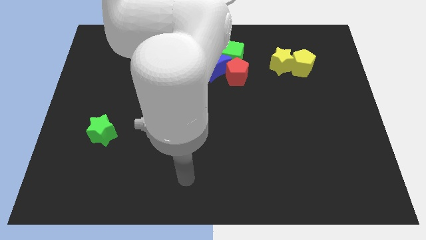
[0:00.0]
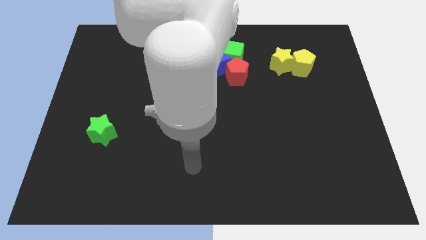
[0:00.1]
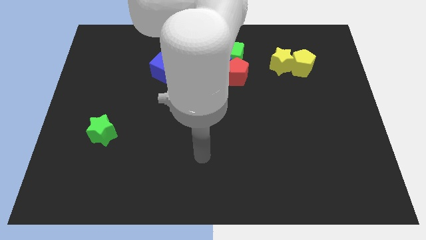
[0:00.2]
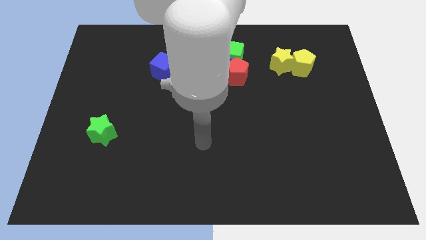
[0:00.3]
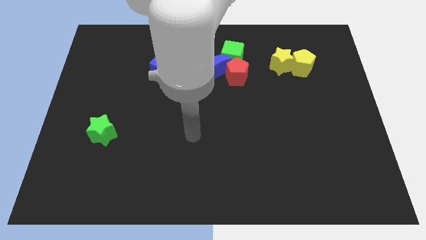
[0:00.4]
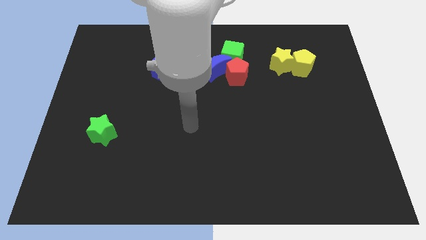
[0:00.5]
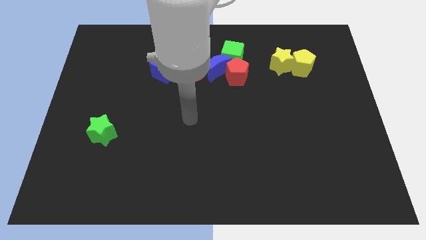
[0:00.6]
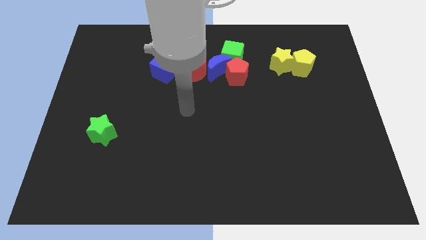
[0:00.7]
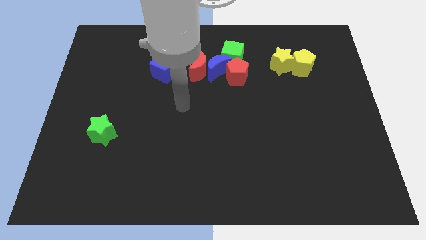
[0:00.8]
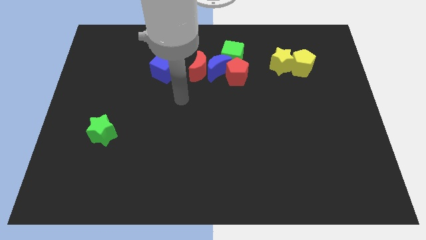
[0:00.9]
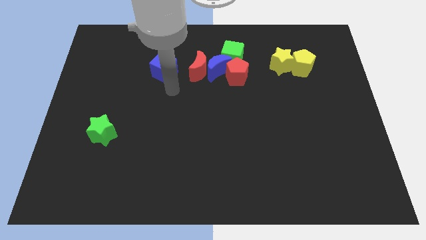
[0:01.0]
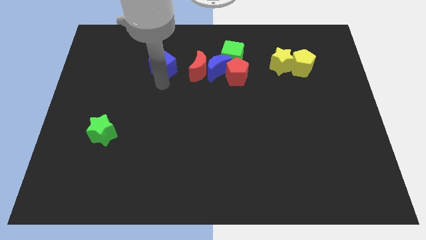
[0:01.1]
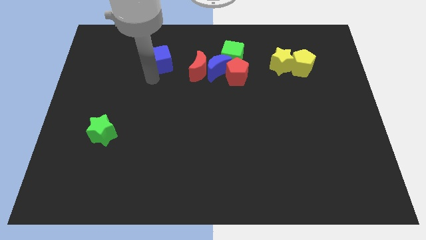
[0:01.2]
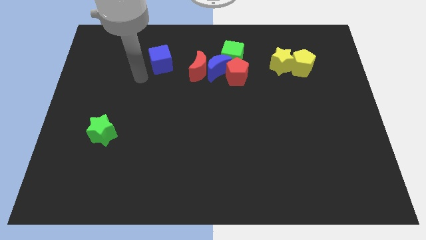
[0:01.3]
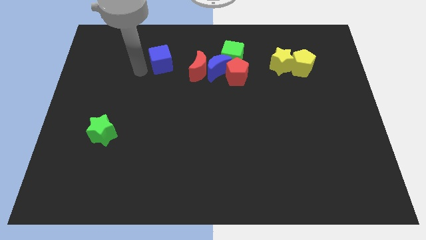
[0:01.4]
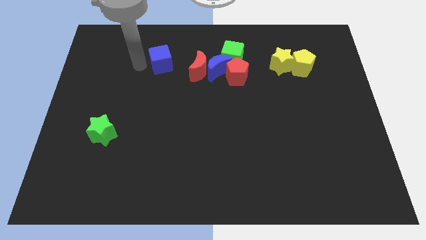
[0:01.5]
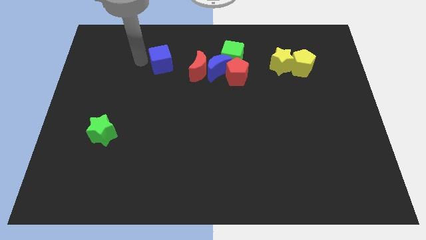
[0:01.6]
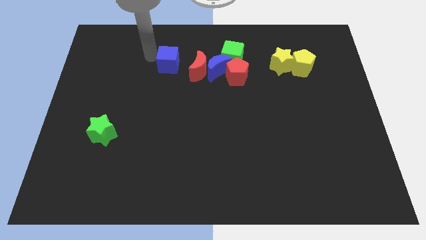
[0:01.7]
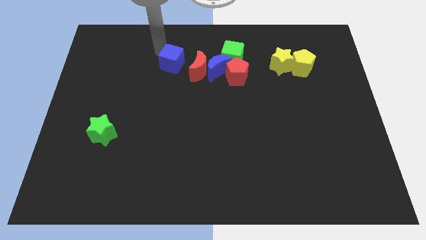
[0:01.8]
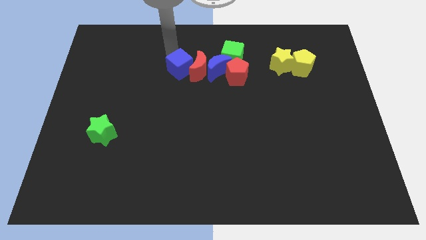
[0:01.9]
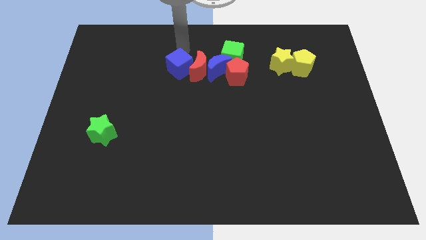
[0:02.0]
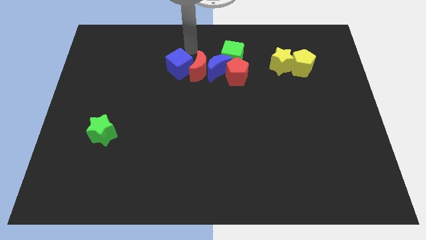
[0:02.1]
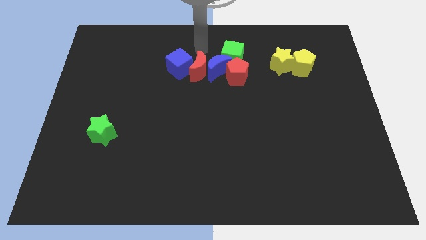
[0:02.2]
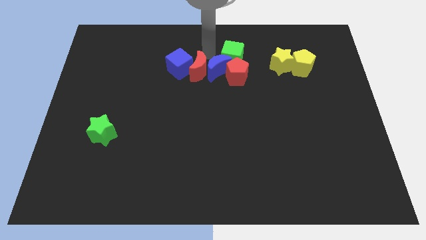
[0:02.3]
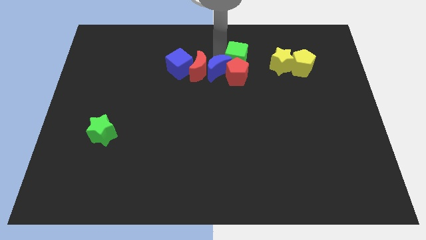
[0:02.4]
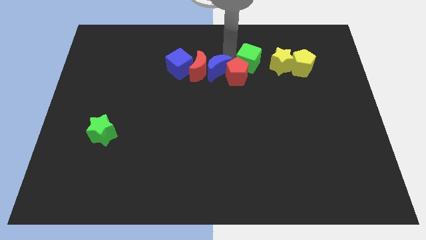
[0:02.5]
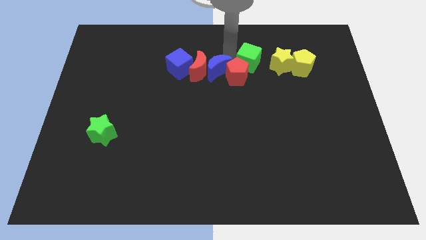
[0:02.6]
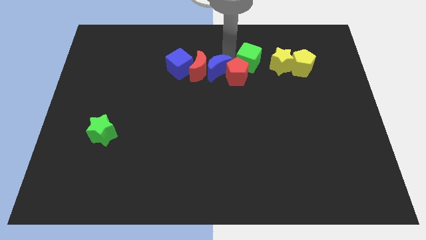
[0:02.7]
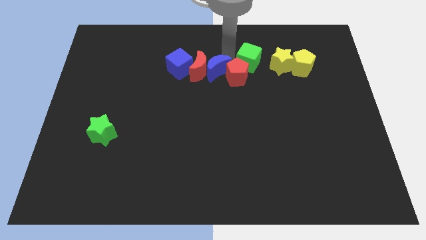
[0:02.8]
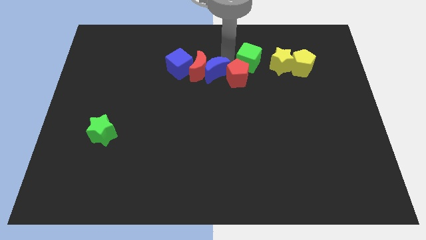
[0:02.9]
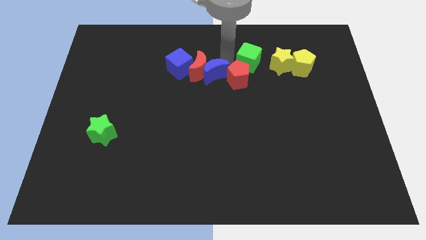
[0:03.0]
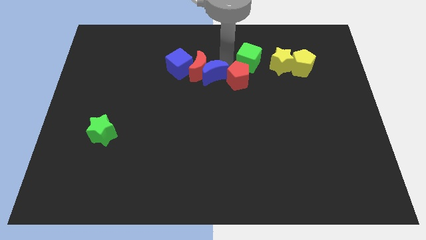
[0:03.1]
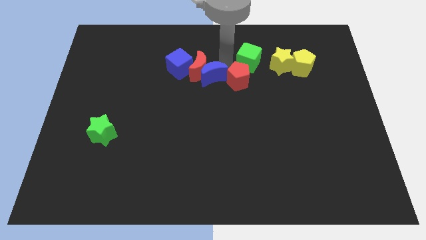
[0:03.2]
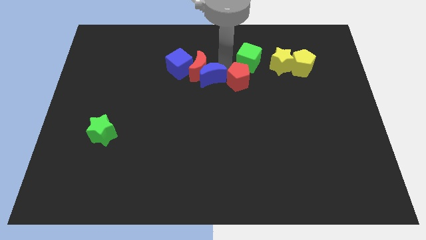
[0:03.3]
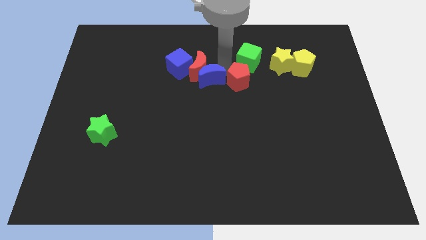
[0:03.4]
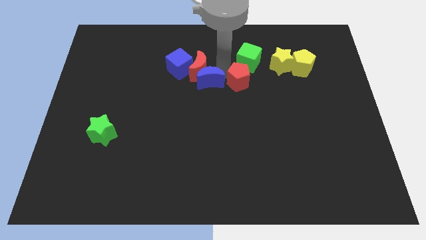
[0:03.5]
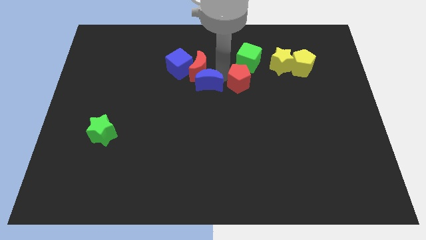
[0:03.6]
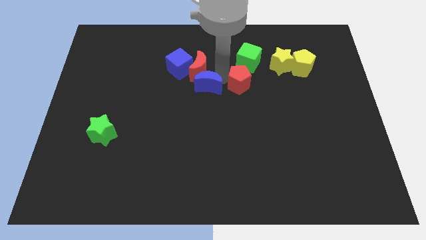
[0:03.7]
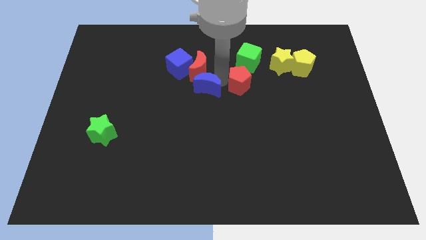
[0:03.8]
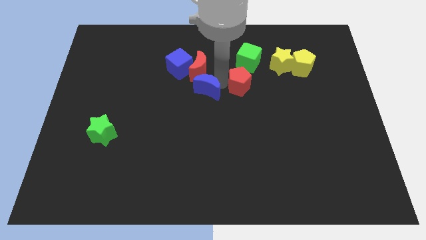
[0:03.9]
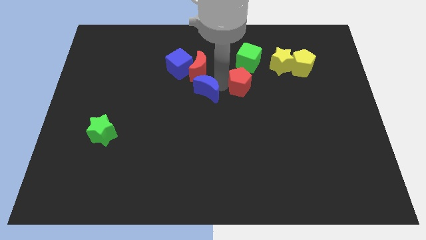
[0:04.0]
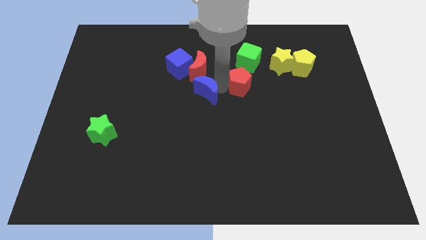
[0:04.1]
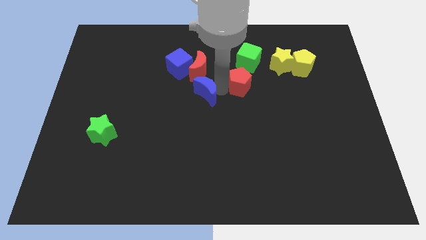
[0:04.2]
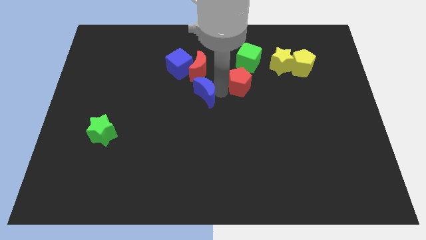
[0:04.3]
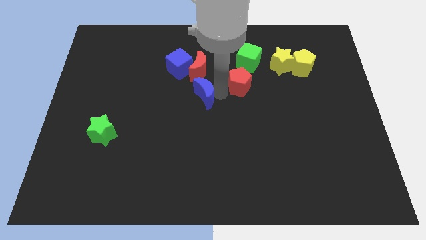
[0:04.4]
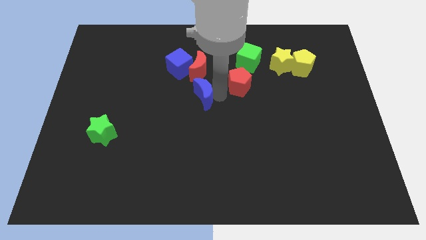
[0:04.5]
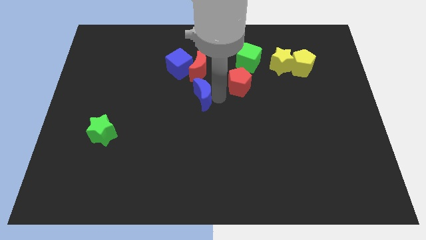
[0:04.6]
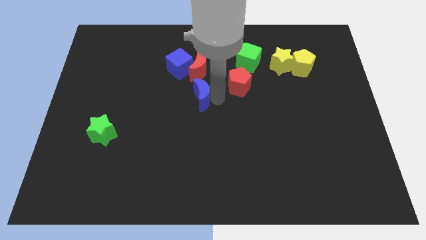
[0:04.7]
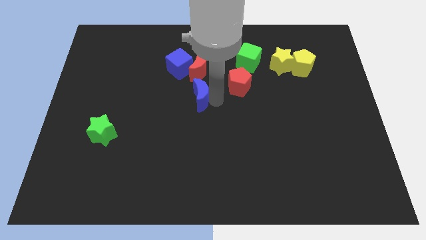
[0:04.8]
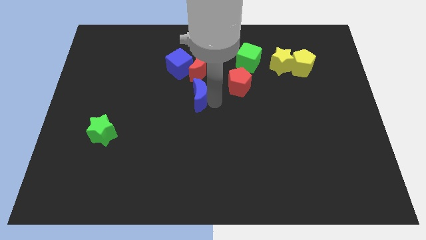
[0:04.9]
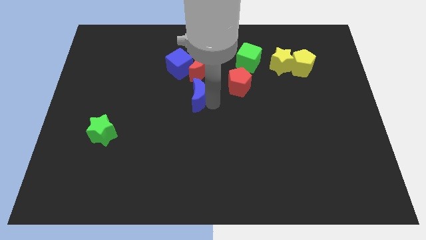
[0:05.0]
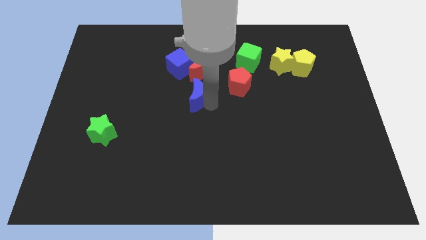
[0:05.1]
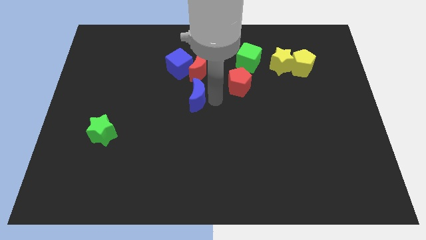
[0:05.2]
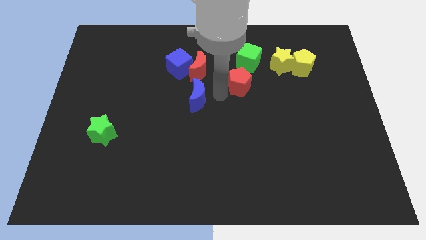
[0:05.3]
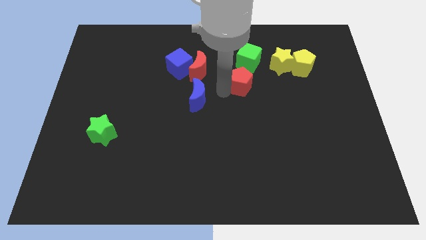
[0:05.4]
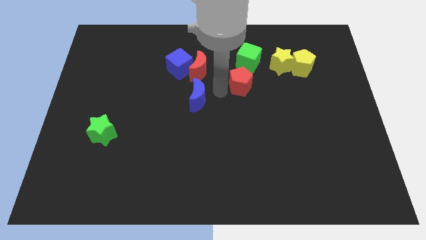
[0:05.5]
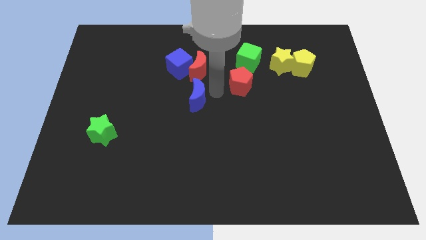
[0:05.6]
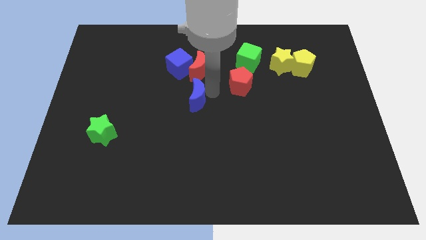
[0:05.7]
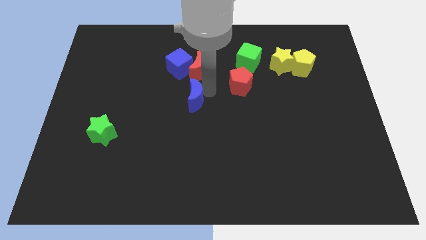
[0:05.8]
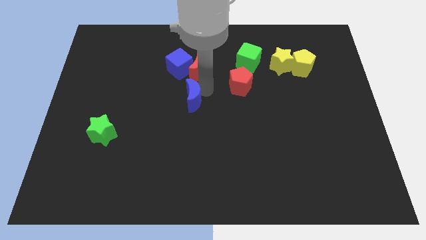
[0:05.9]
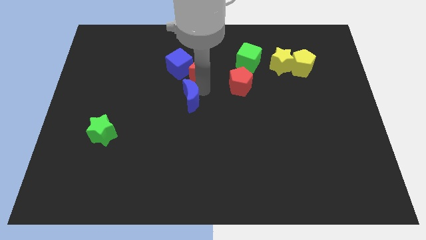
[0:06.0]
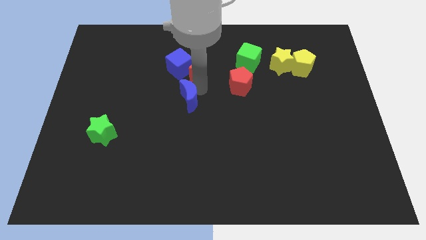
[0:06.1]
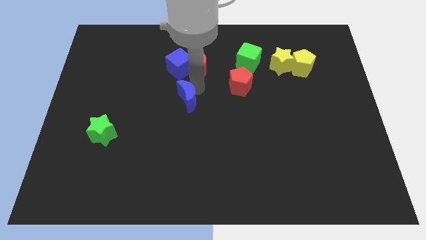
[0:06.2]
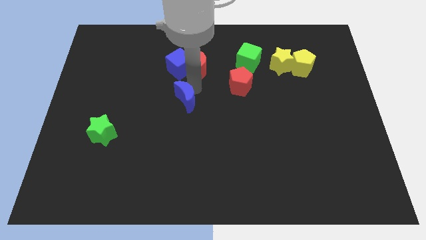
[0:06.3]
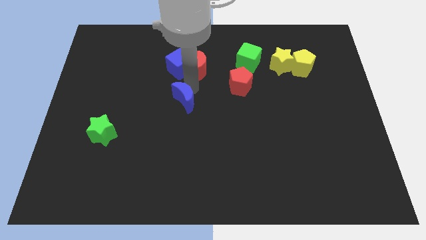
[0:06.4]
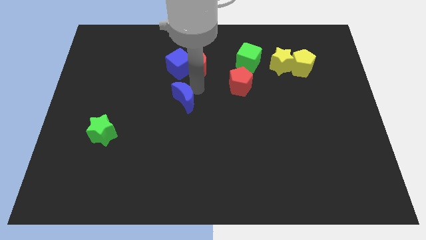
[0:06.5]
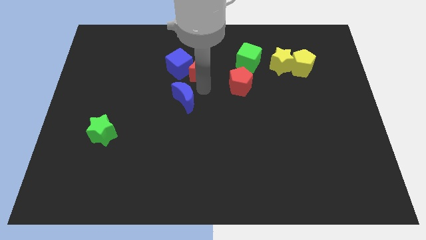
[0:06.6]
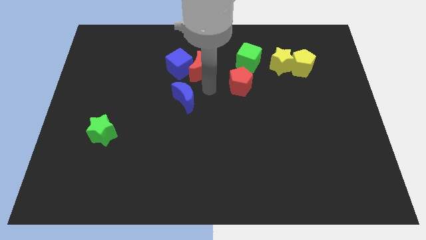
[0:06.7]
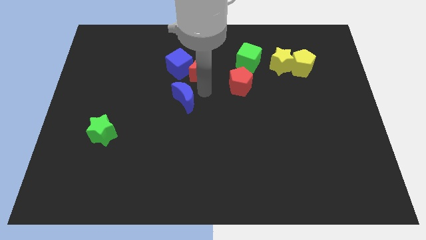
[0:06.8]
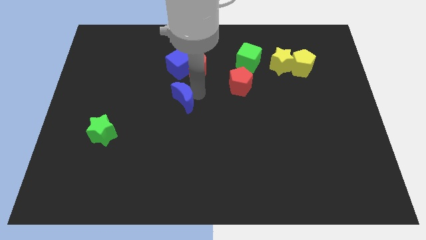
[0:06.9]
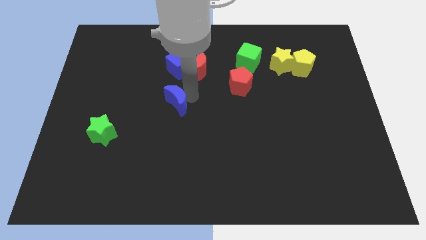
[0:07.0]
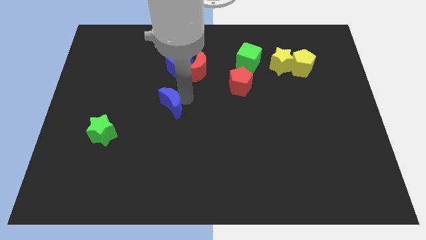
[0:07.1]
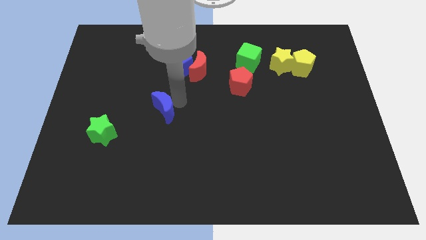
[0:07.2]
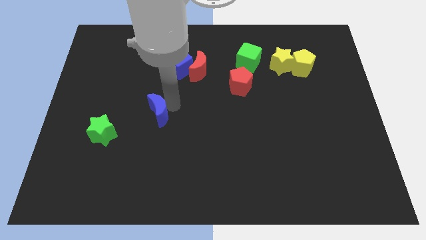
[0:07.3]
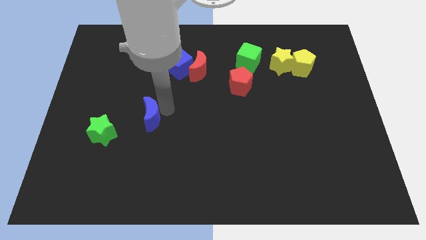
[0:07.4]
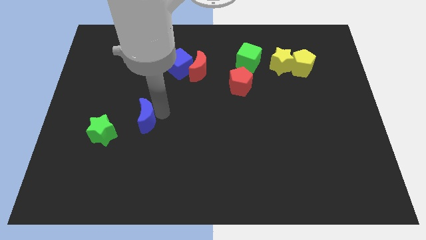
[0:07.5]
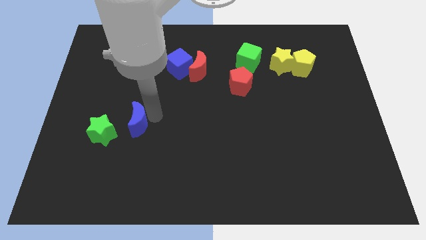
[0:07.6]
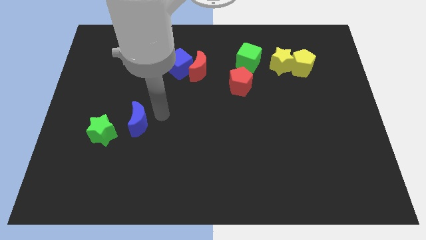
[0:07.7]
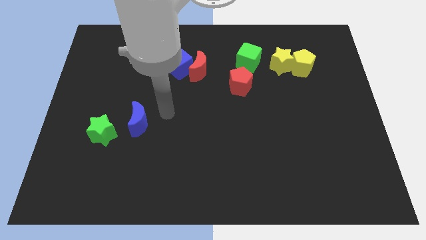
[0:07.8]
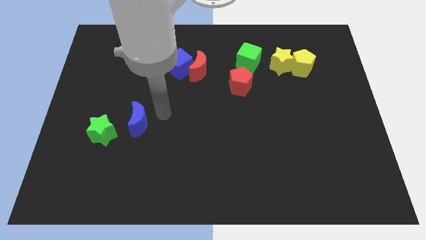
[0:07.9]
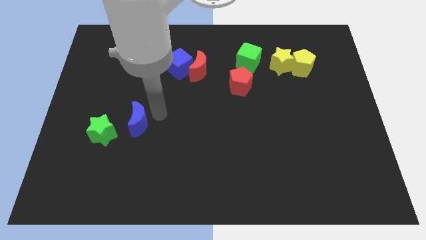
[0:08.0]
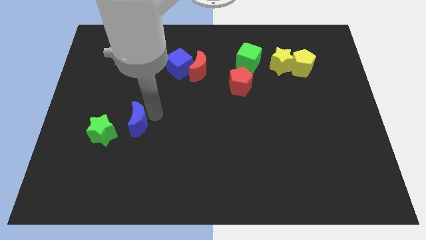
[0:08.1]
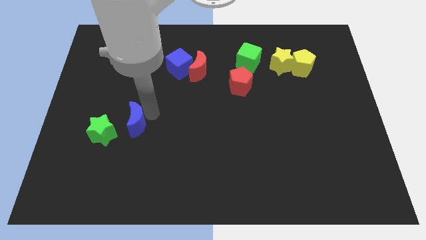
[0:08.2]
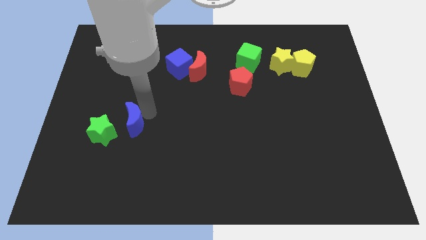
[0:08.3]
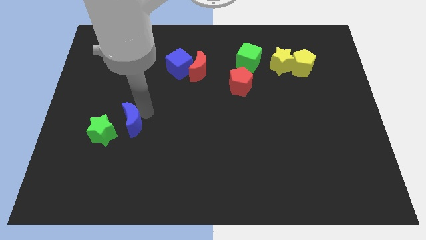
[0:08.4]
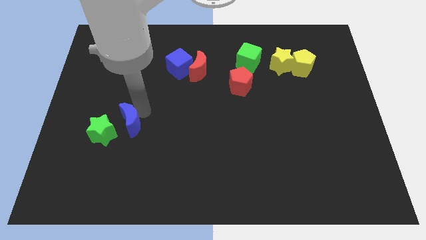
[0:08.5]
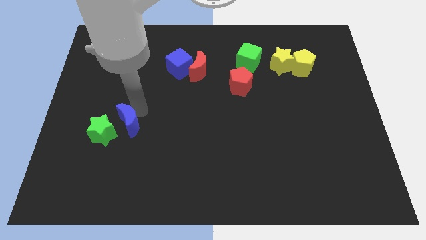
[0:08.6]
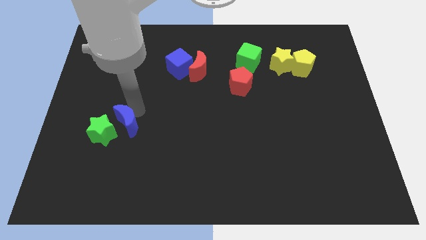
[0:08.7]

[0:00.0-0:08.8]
slide the blue moon towards the green star
